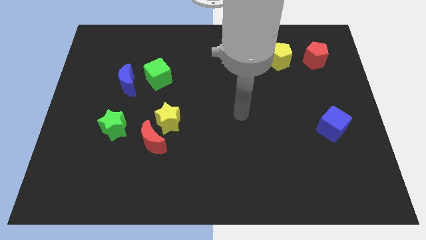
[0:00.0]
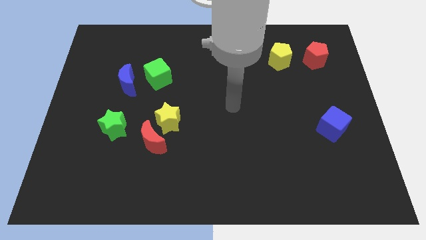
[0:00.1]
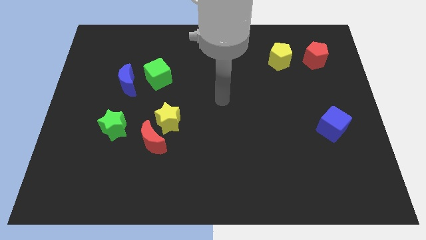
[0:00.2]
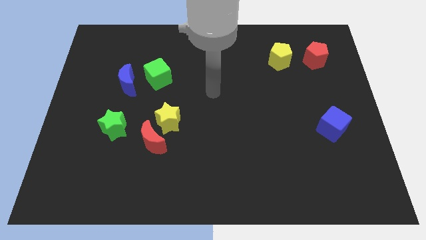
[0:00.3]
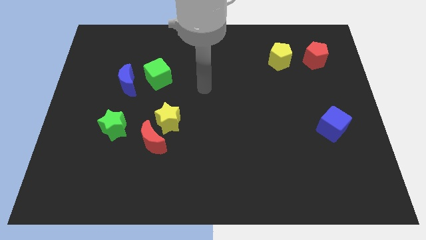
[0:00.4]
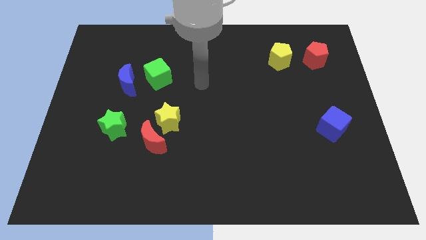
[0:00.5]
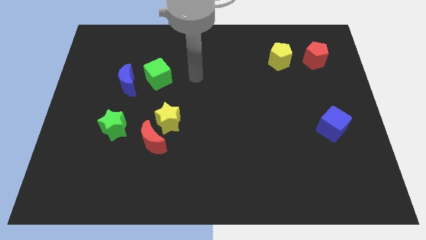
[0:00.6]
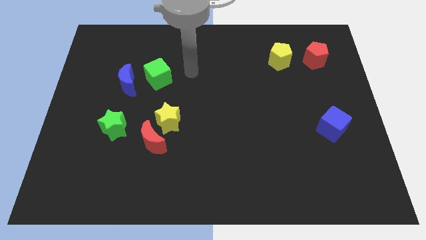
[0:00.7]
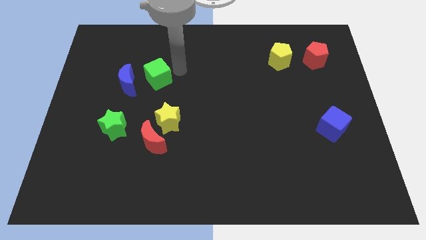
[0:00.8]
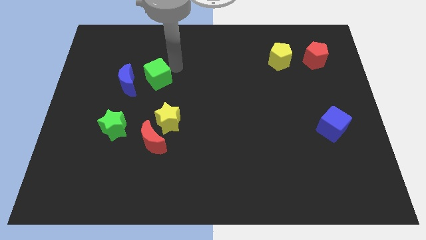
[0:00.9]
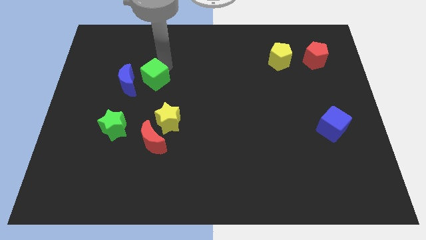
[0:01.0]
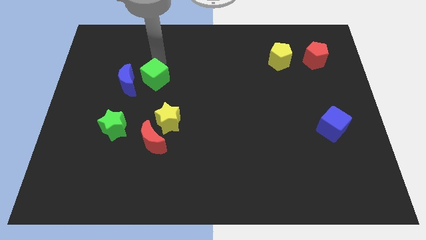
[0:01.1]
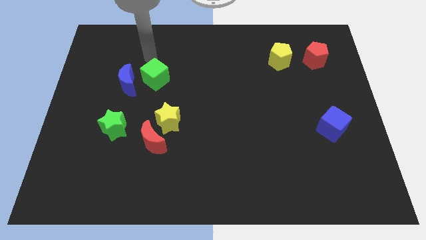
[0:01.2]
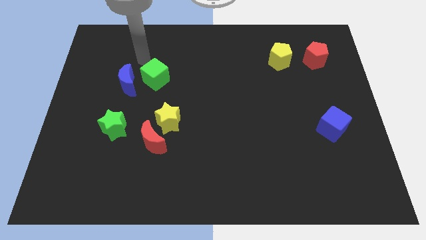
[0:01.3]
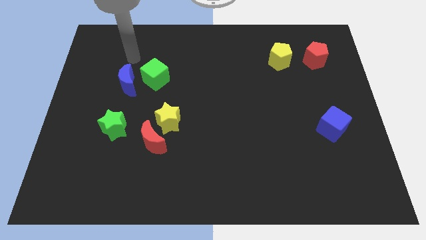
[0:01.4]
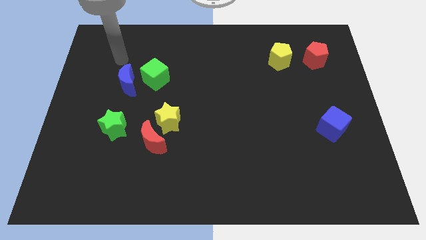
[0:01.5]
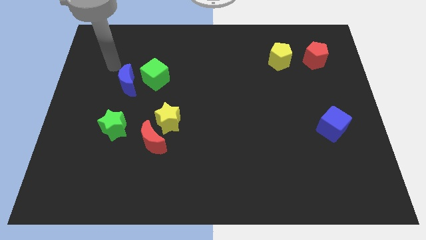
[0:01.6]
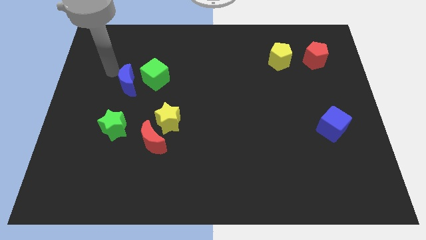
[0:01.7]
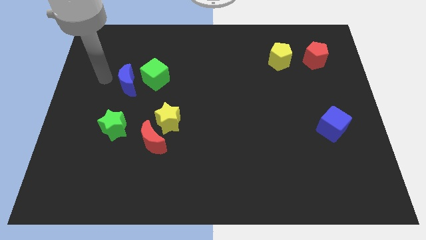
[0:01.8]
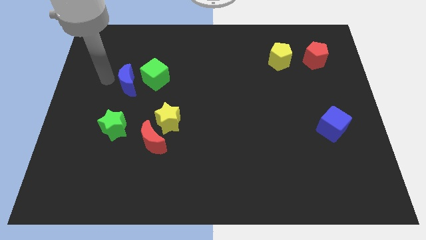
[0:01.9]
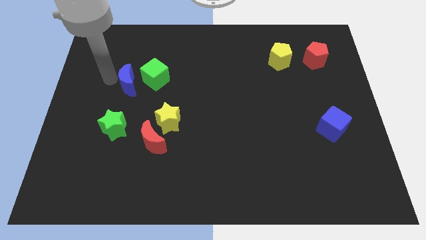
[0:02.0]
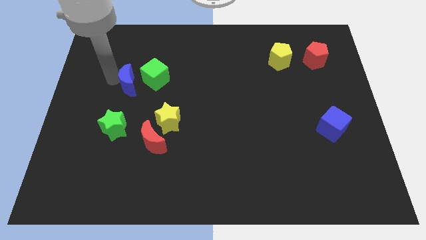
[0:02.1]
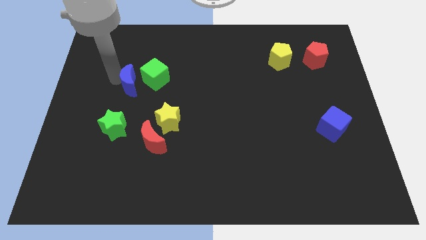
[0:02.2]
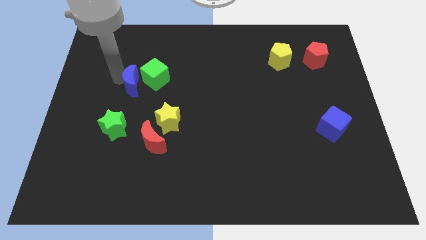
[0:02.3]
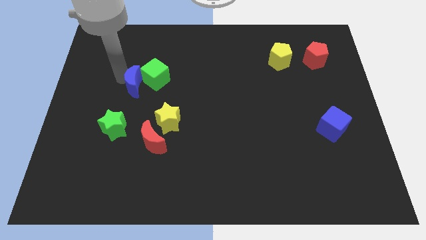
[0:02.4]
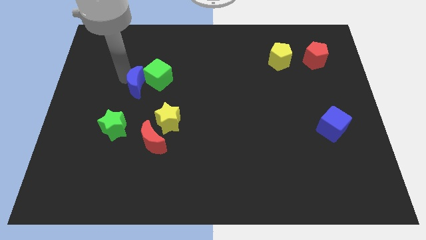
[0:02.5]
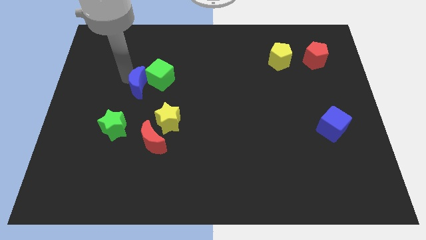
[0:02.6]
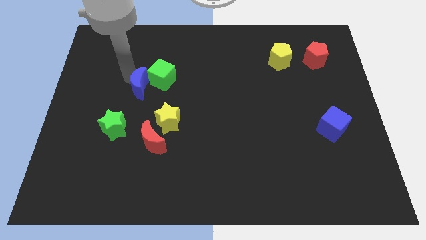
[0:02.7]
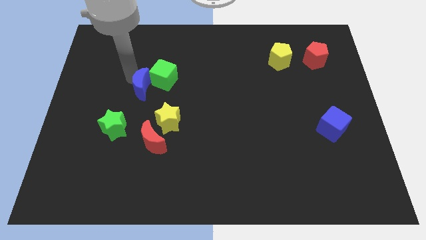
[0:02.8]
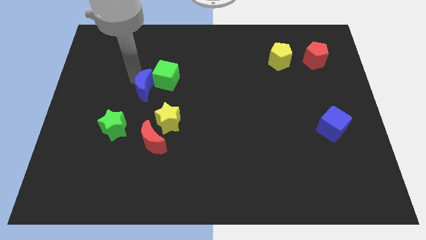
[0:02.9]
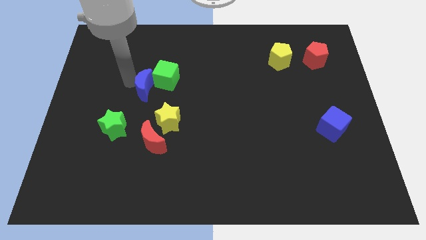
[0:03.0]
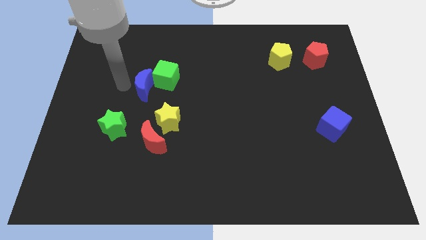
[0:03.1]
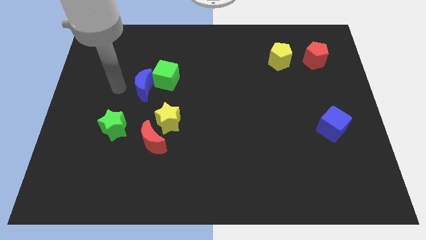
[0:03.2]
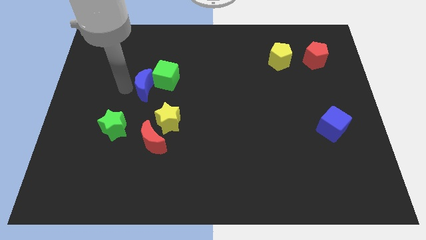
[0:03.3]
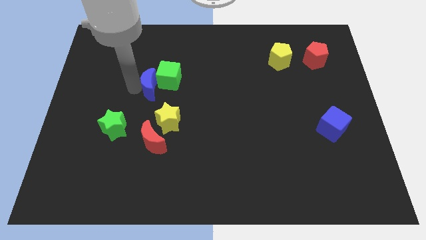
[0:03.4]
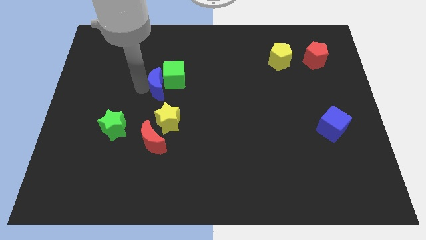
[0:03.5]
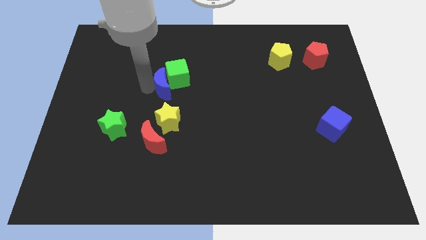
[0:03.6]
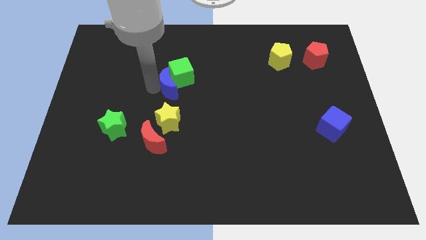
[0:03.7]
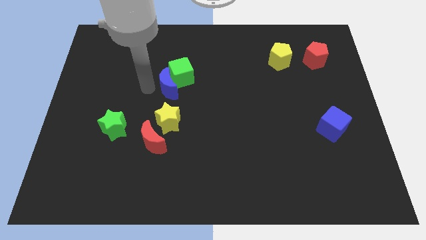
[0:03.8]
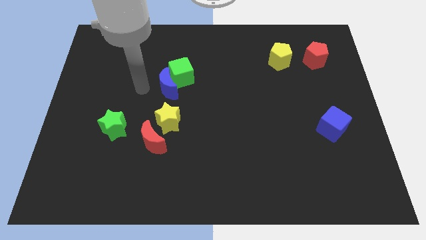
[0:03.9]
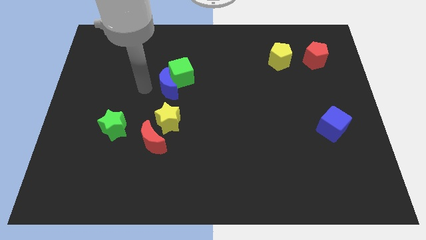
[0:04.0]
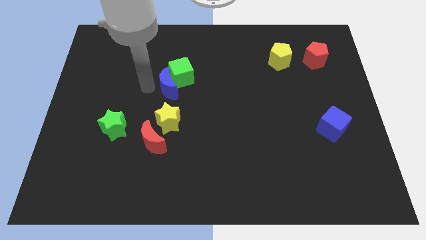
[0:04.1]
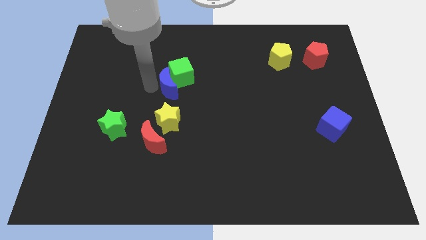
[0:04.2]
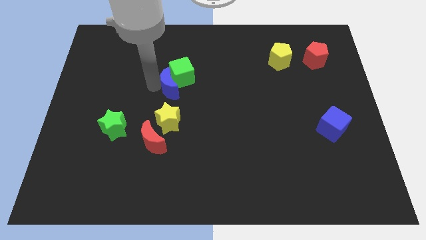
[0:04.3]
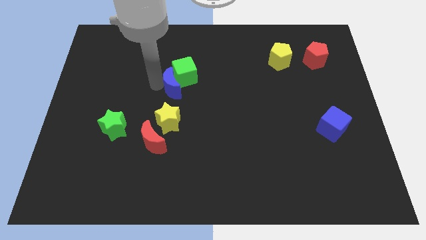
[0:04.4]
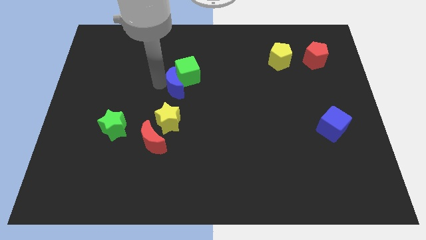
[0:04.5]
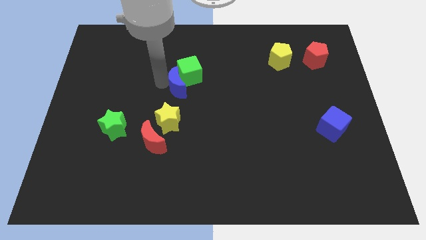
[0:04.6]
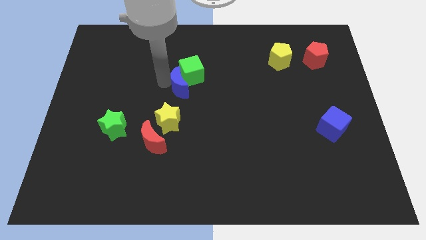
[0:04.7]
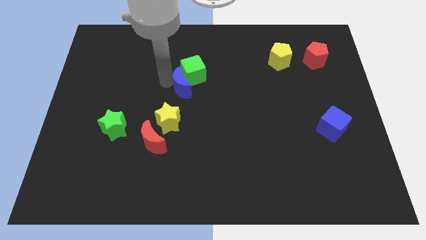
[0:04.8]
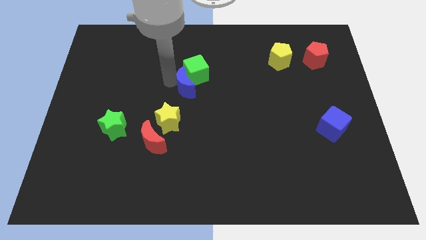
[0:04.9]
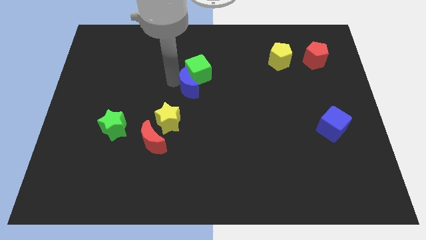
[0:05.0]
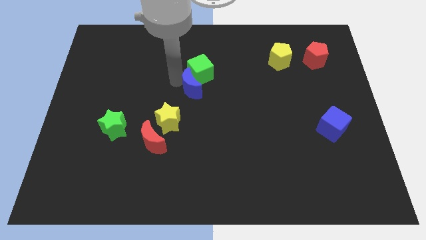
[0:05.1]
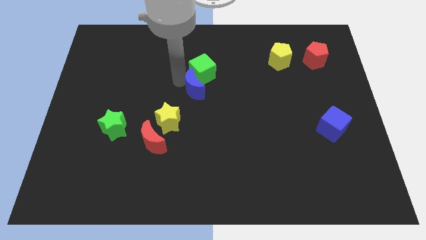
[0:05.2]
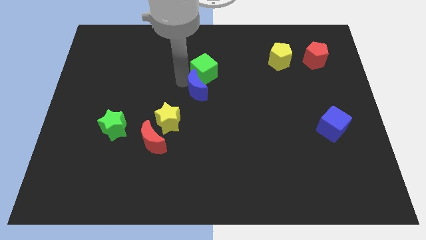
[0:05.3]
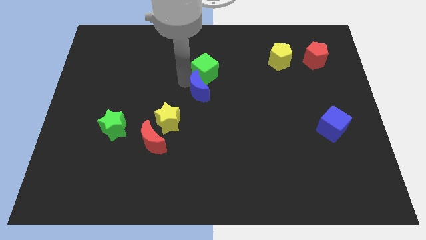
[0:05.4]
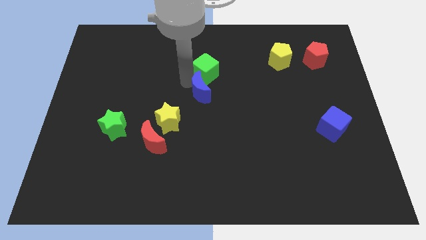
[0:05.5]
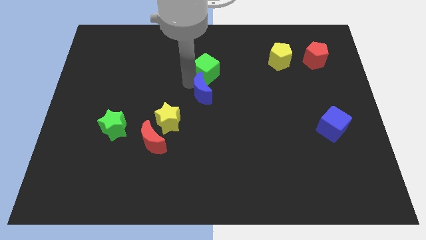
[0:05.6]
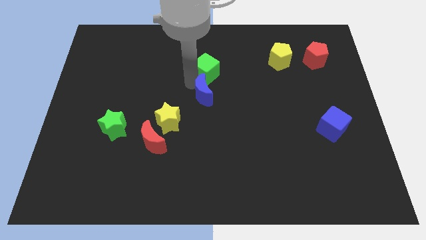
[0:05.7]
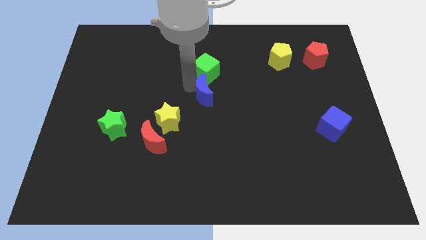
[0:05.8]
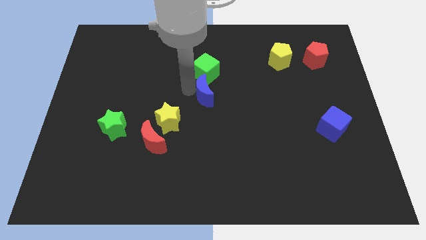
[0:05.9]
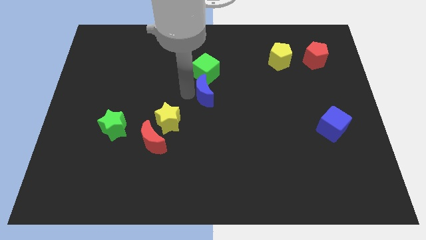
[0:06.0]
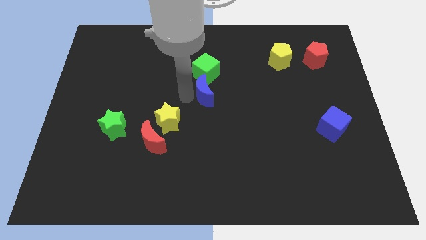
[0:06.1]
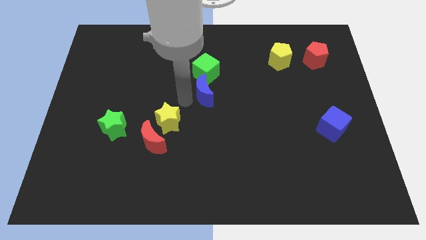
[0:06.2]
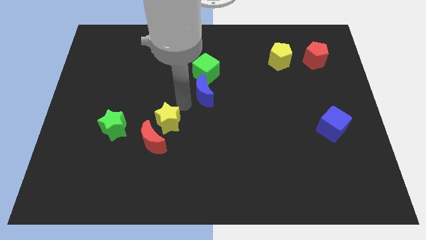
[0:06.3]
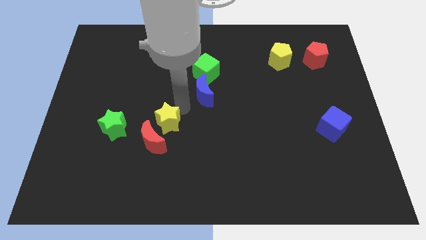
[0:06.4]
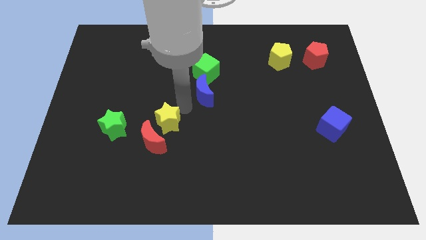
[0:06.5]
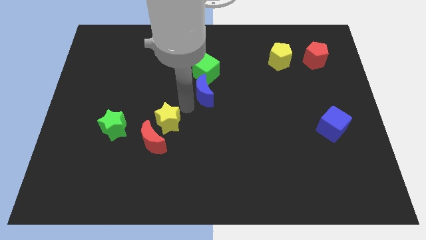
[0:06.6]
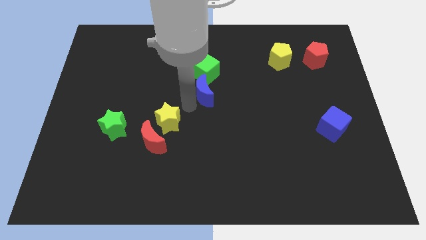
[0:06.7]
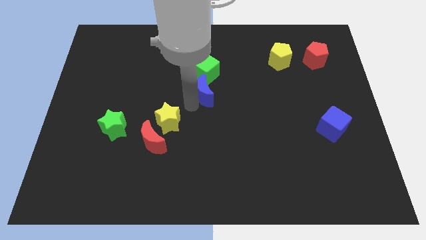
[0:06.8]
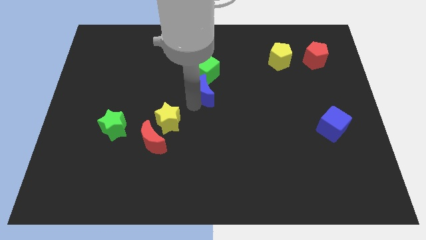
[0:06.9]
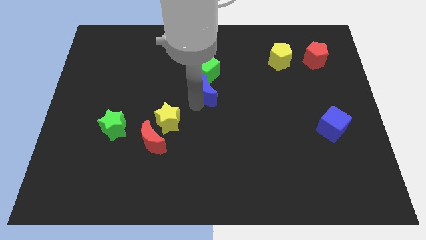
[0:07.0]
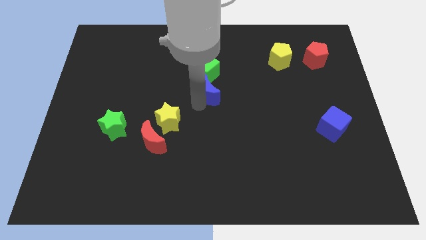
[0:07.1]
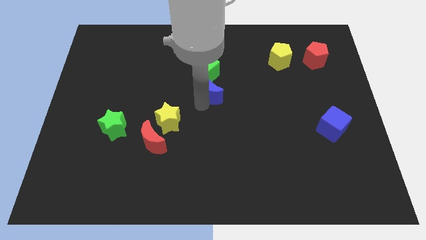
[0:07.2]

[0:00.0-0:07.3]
move the blue moon to the right

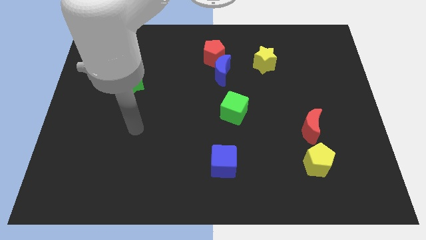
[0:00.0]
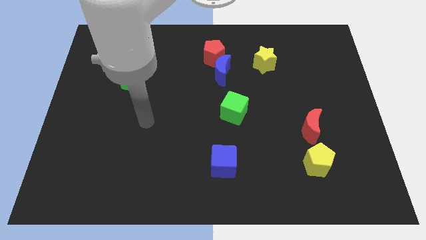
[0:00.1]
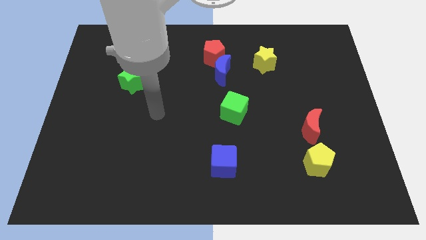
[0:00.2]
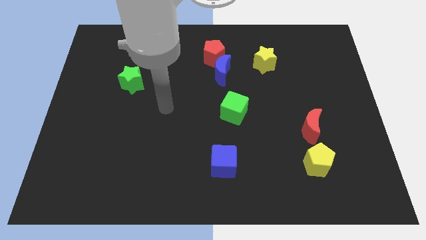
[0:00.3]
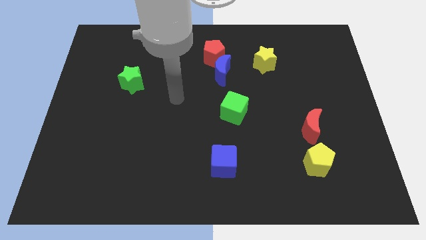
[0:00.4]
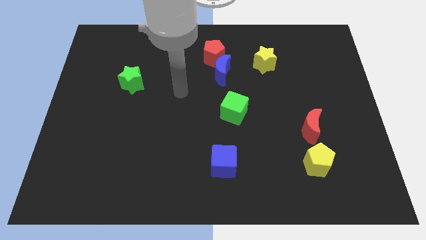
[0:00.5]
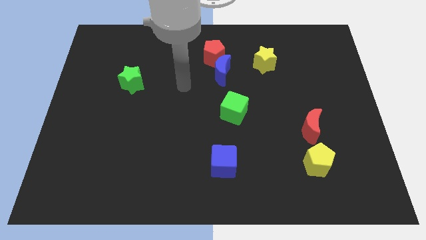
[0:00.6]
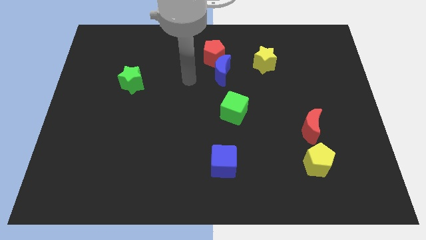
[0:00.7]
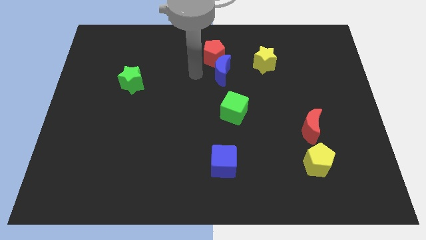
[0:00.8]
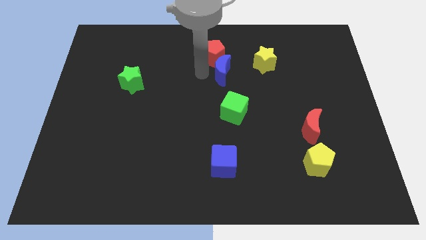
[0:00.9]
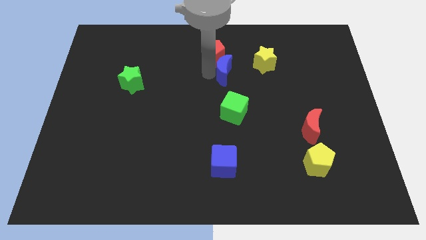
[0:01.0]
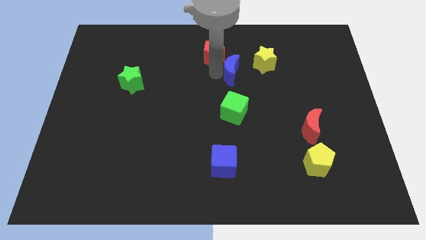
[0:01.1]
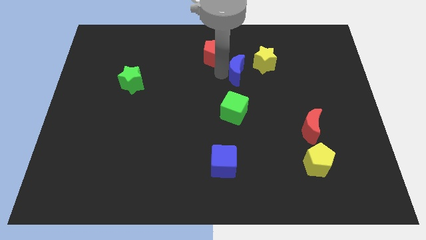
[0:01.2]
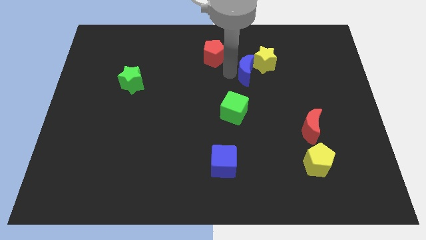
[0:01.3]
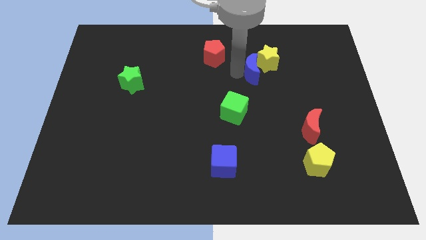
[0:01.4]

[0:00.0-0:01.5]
slightly push the blue moon right
